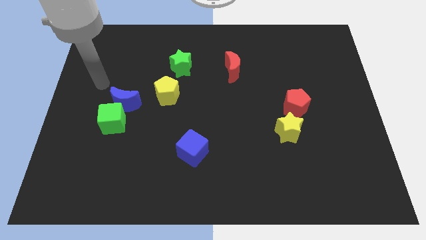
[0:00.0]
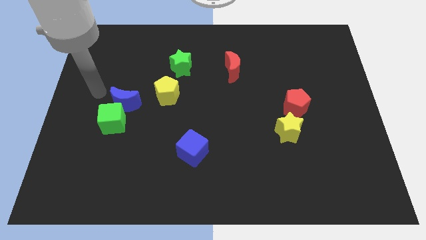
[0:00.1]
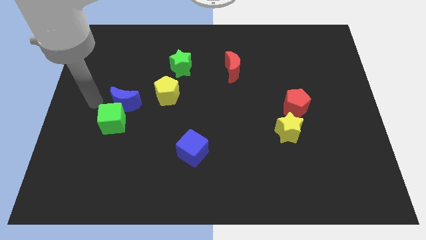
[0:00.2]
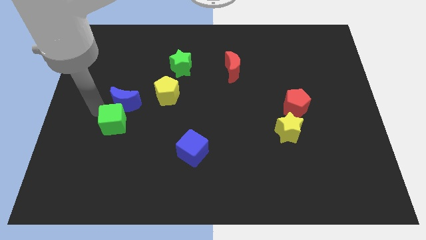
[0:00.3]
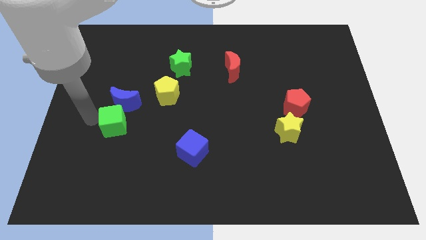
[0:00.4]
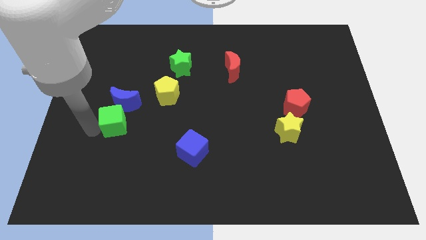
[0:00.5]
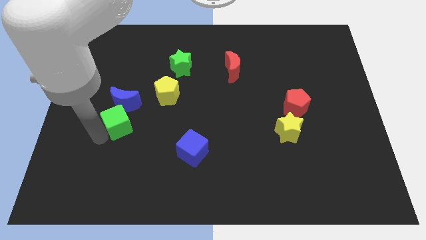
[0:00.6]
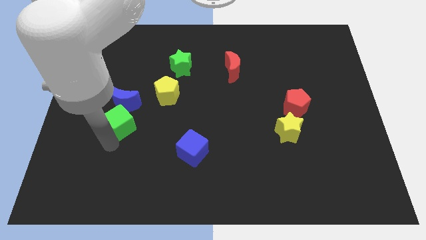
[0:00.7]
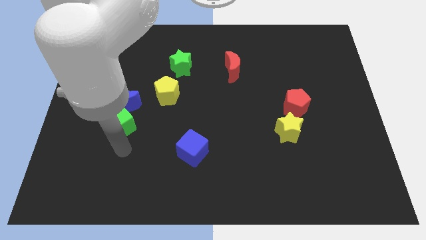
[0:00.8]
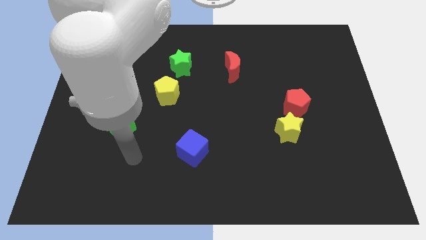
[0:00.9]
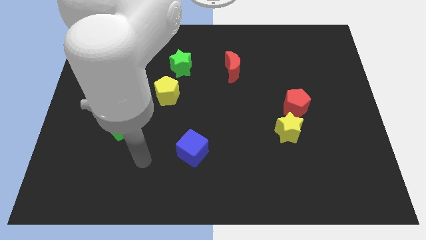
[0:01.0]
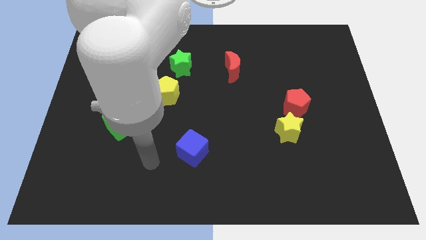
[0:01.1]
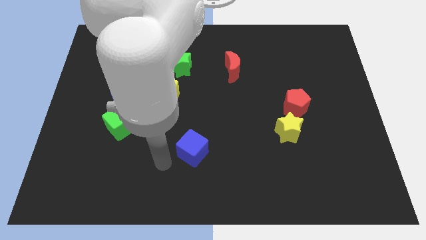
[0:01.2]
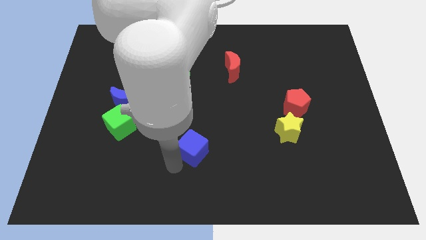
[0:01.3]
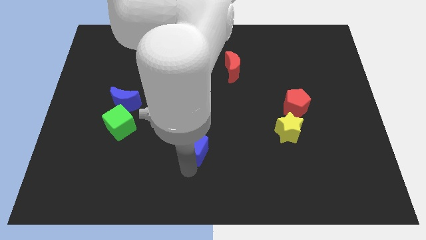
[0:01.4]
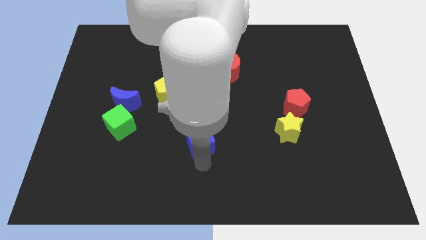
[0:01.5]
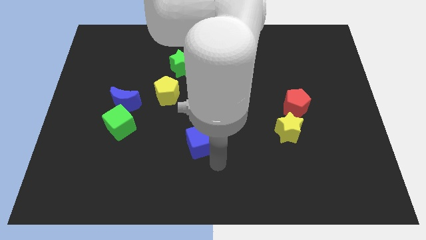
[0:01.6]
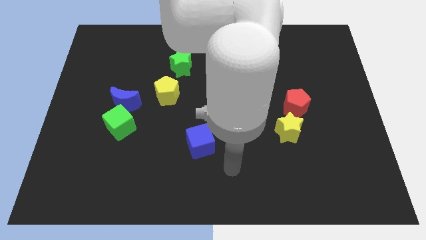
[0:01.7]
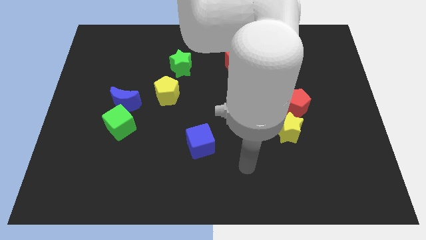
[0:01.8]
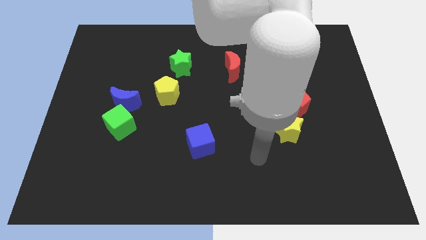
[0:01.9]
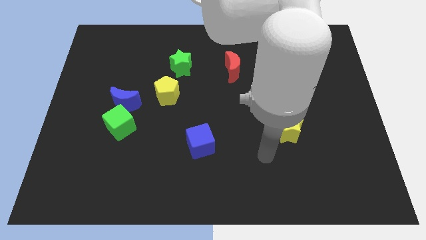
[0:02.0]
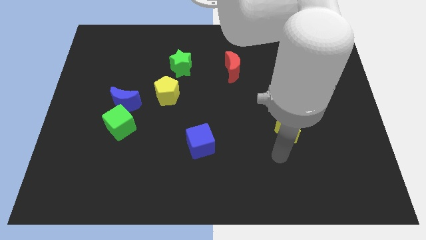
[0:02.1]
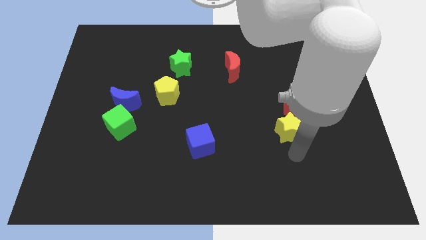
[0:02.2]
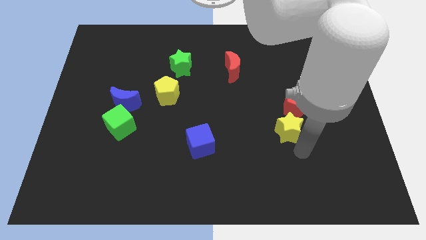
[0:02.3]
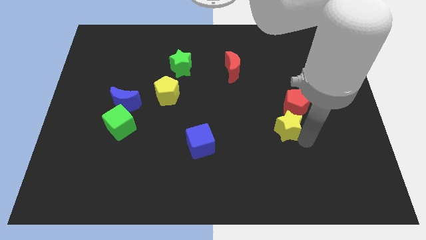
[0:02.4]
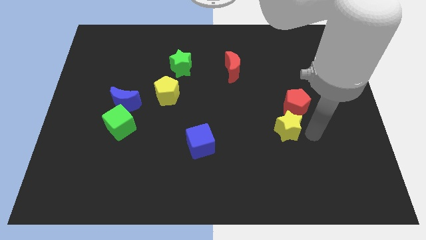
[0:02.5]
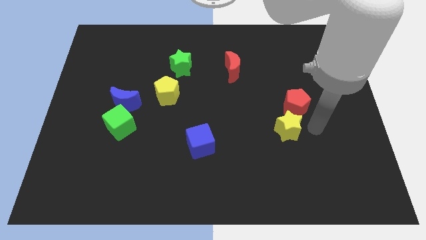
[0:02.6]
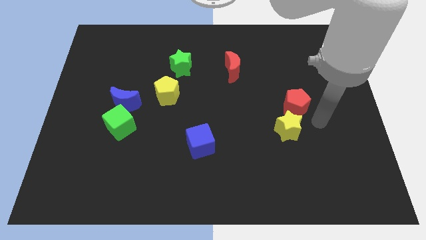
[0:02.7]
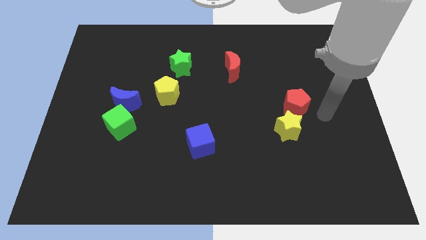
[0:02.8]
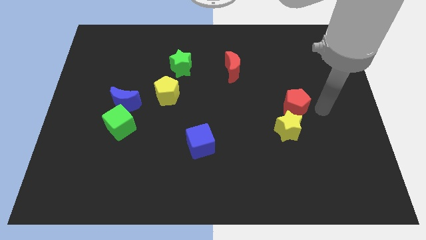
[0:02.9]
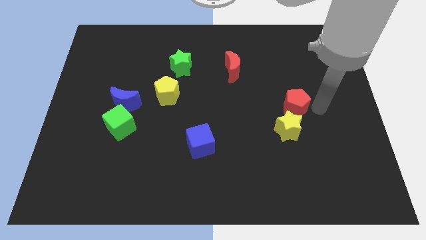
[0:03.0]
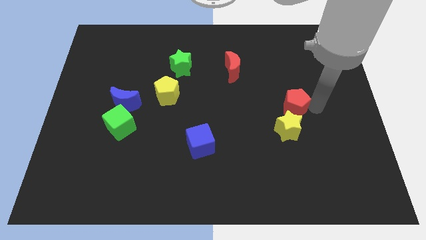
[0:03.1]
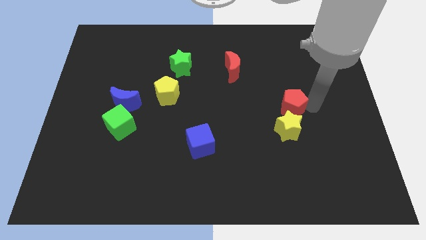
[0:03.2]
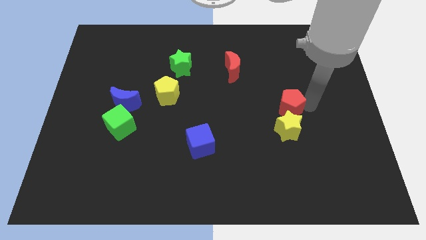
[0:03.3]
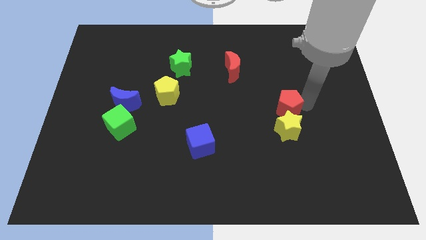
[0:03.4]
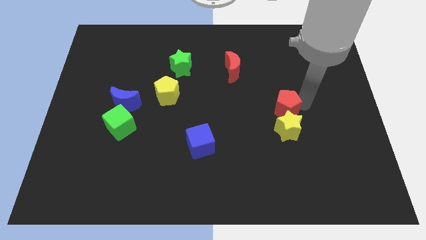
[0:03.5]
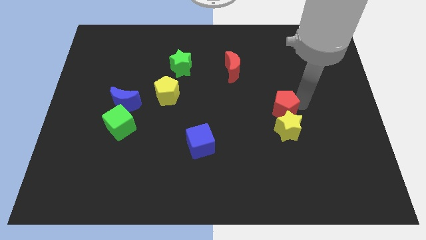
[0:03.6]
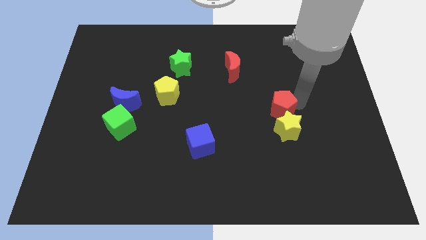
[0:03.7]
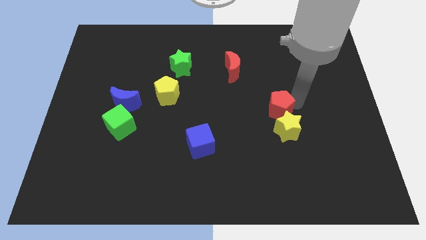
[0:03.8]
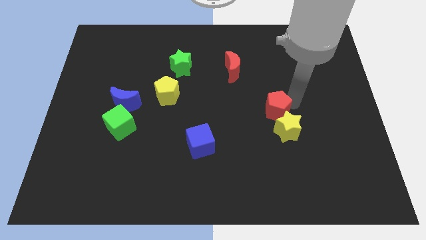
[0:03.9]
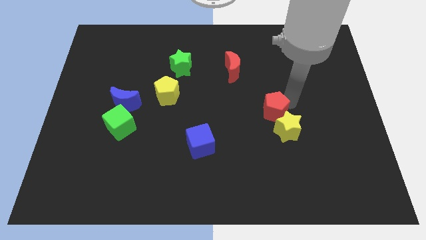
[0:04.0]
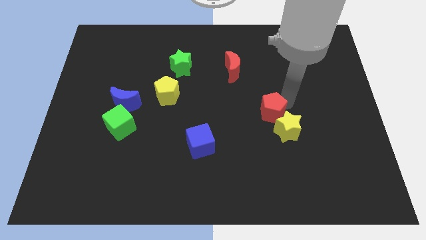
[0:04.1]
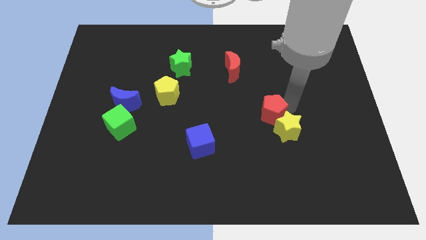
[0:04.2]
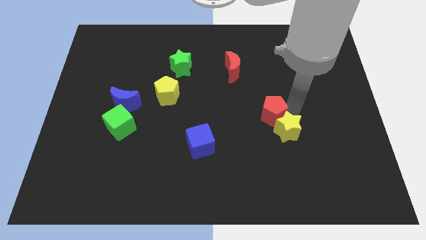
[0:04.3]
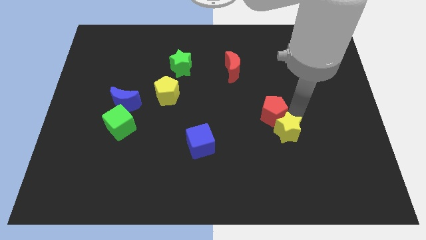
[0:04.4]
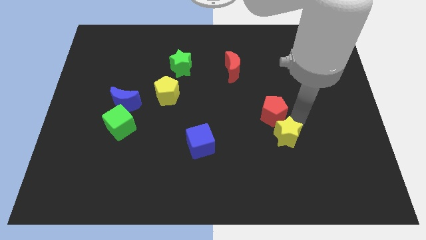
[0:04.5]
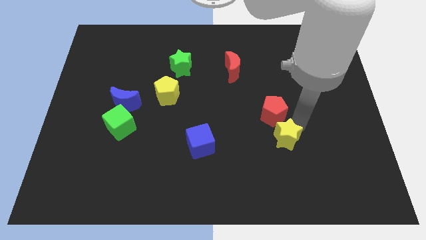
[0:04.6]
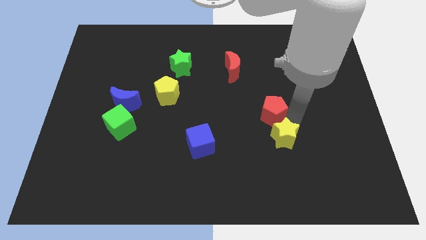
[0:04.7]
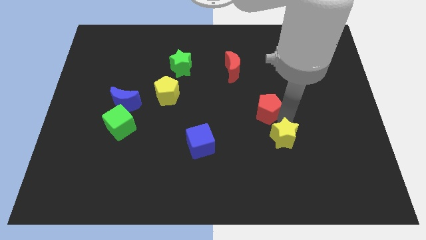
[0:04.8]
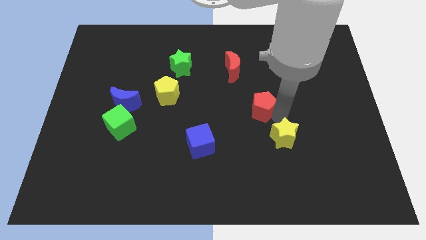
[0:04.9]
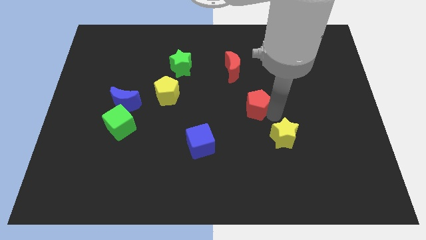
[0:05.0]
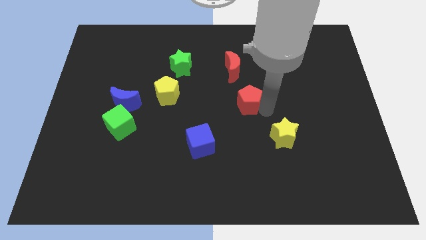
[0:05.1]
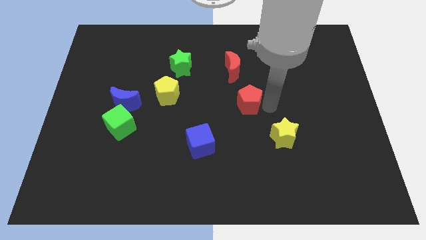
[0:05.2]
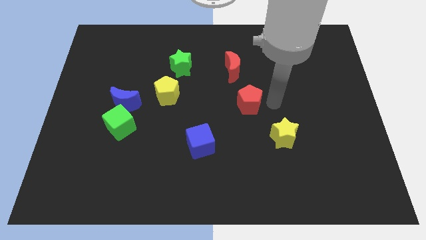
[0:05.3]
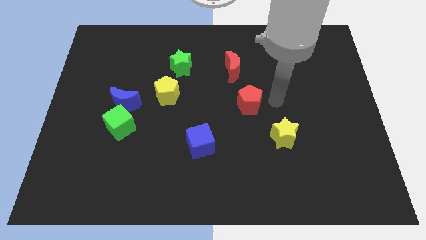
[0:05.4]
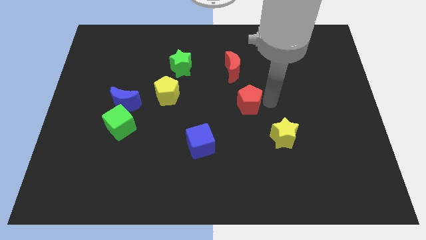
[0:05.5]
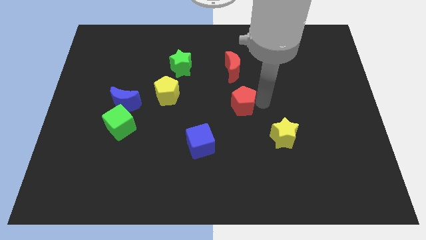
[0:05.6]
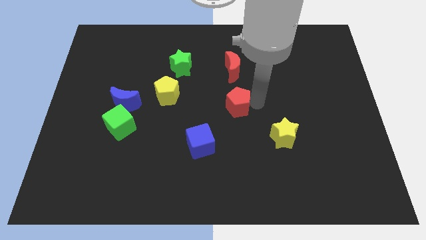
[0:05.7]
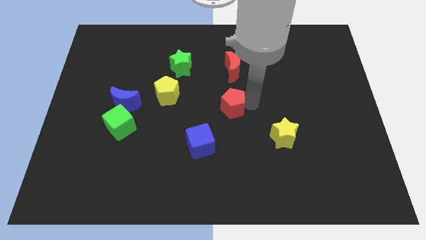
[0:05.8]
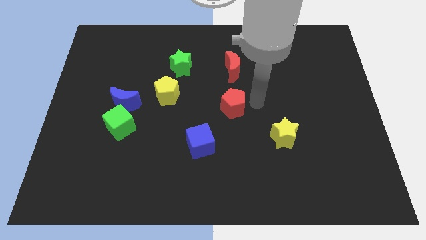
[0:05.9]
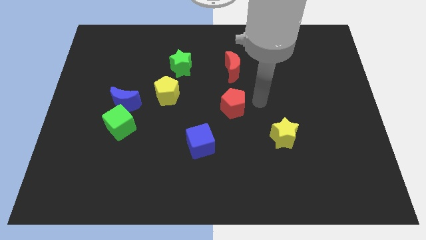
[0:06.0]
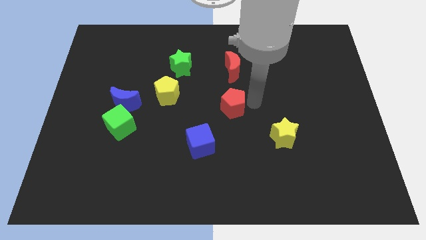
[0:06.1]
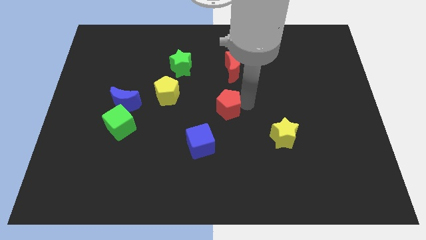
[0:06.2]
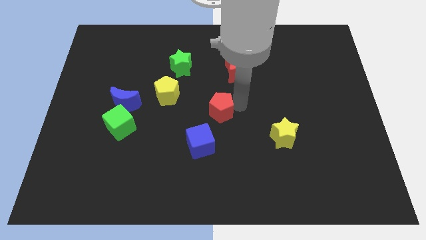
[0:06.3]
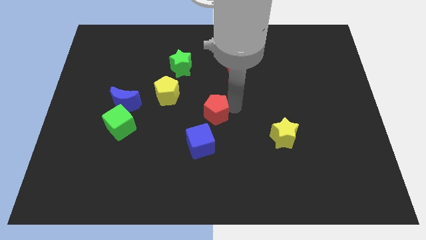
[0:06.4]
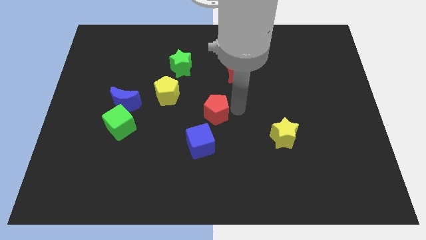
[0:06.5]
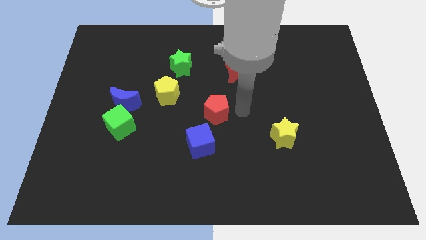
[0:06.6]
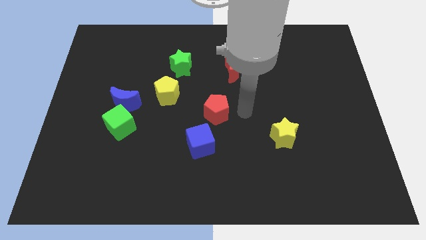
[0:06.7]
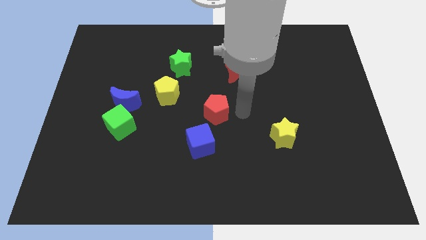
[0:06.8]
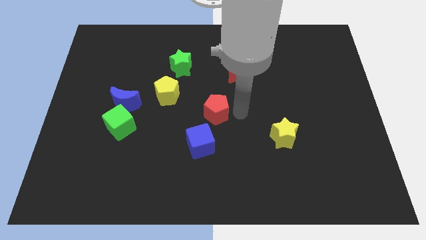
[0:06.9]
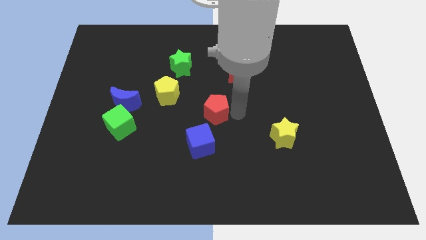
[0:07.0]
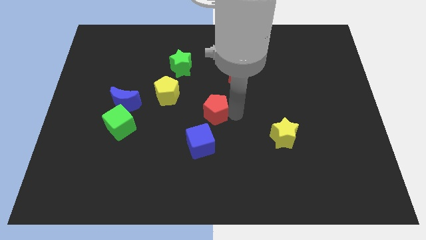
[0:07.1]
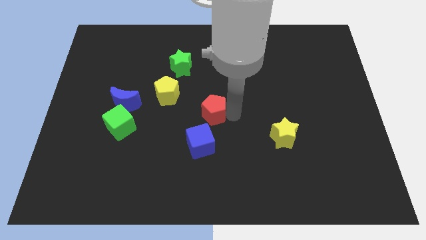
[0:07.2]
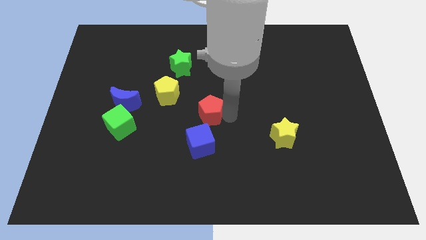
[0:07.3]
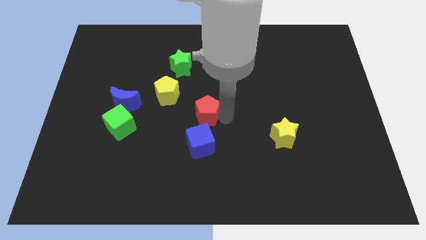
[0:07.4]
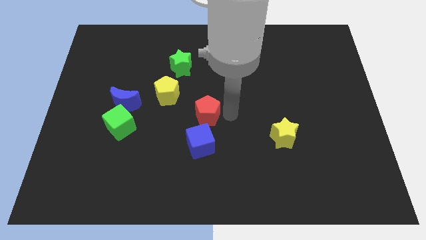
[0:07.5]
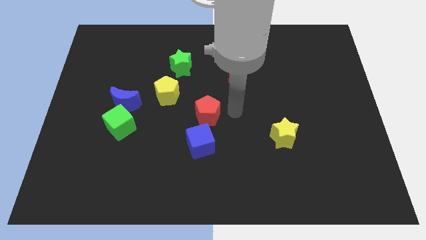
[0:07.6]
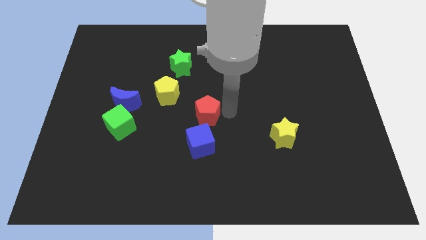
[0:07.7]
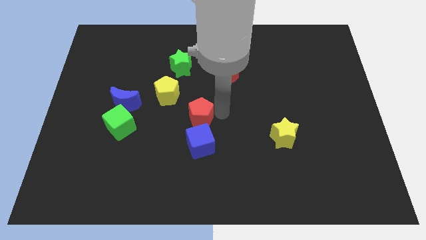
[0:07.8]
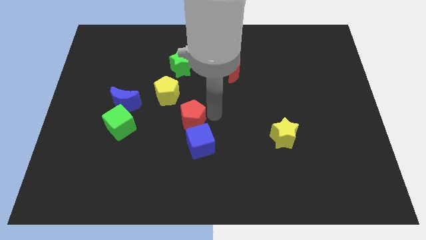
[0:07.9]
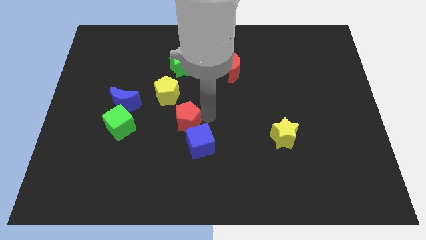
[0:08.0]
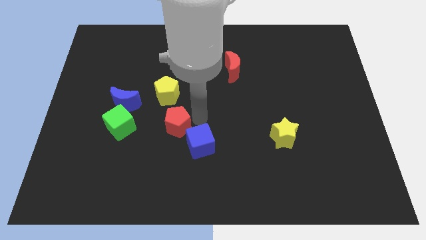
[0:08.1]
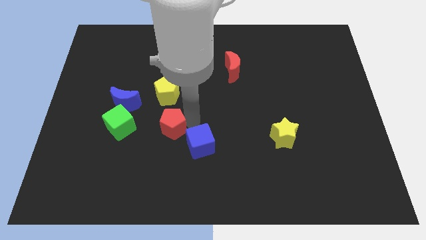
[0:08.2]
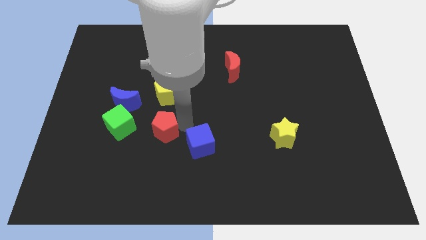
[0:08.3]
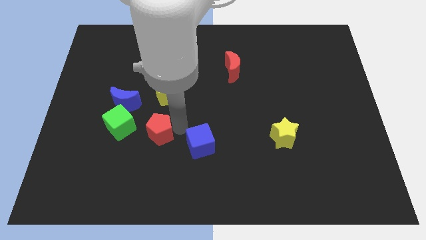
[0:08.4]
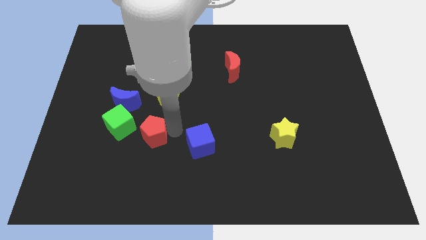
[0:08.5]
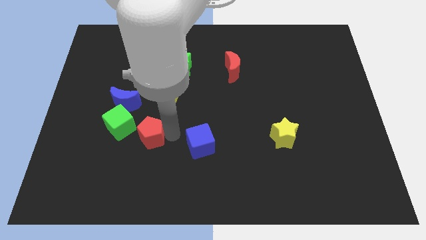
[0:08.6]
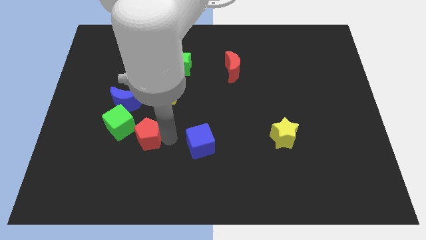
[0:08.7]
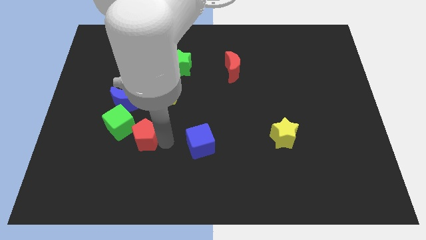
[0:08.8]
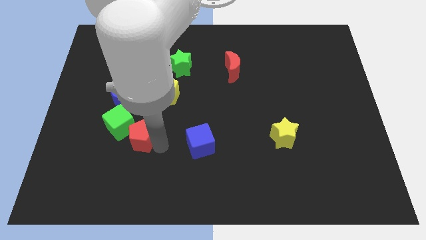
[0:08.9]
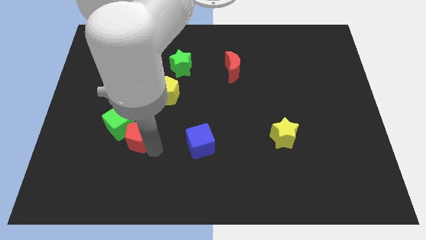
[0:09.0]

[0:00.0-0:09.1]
move the red pentagon towards the green cube
